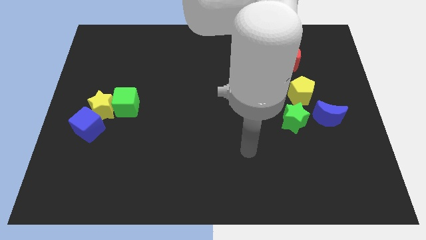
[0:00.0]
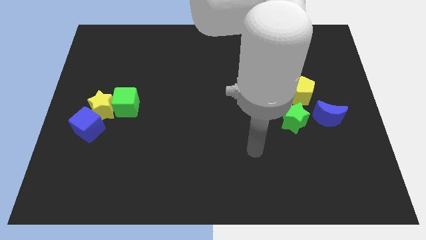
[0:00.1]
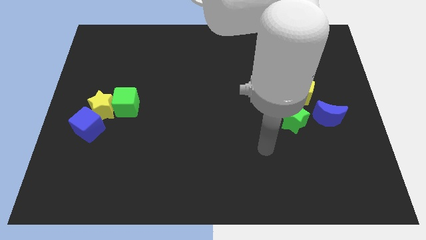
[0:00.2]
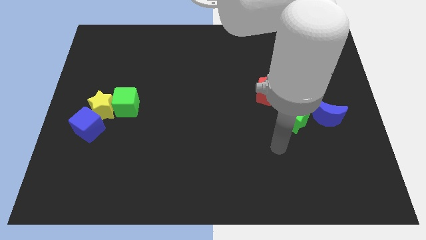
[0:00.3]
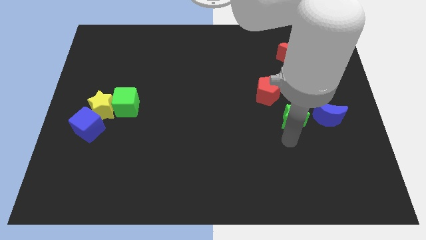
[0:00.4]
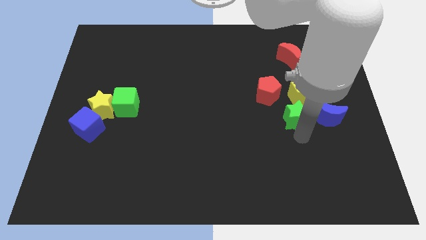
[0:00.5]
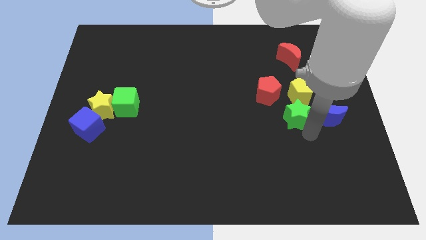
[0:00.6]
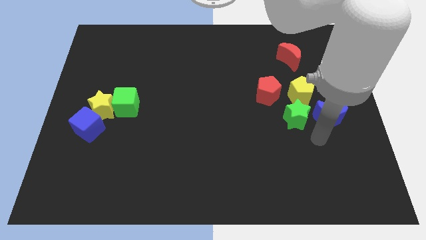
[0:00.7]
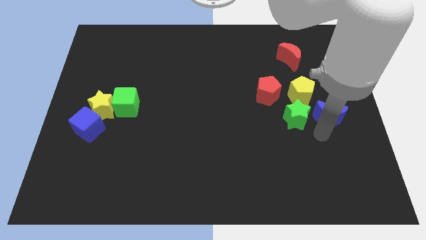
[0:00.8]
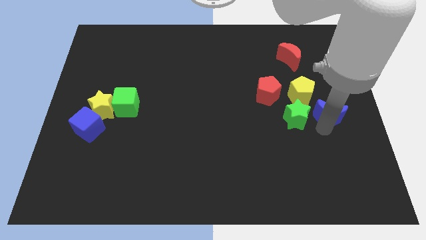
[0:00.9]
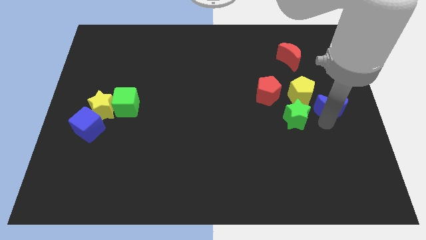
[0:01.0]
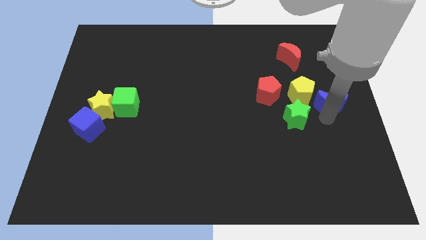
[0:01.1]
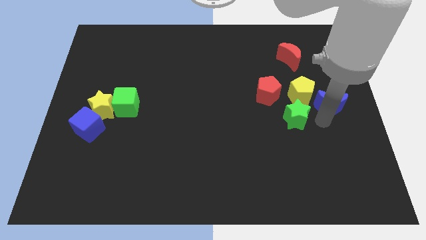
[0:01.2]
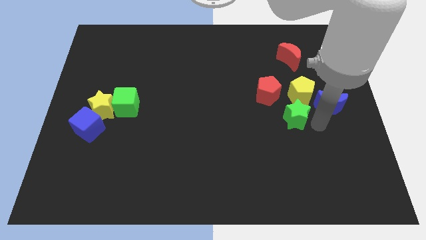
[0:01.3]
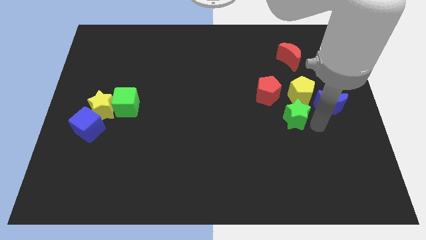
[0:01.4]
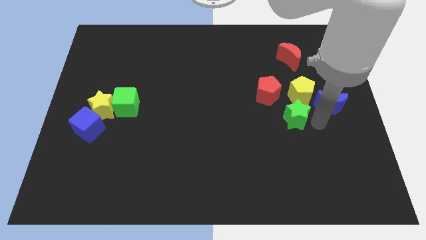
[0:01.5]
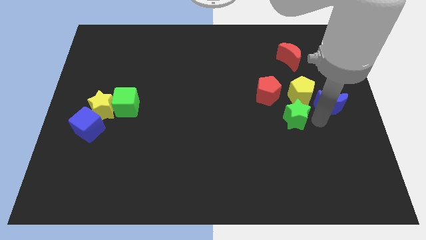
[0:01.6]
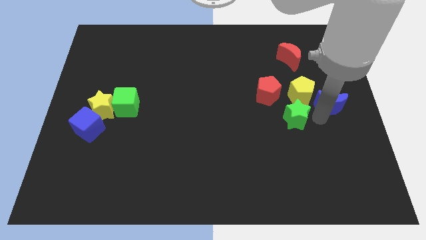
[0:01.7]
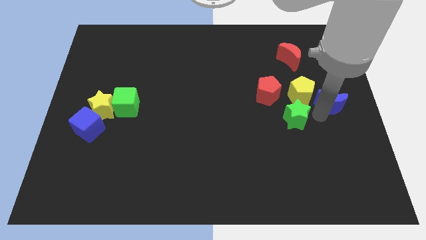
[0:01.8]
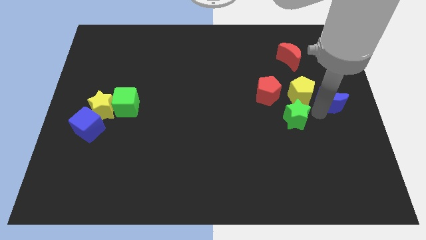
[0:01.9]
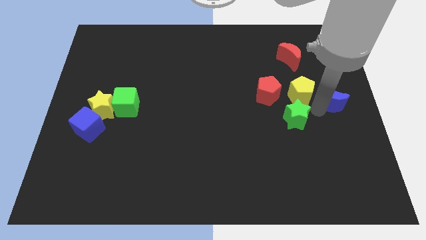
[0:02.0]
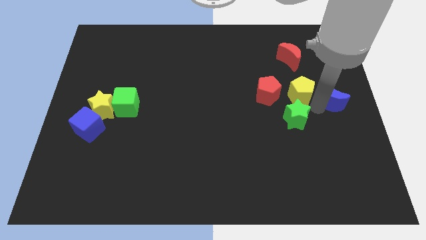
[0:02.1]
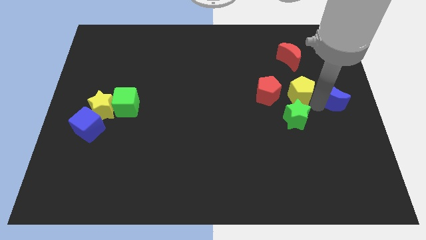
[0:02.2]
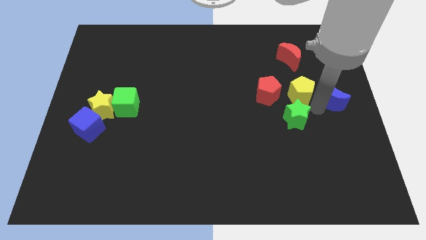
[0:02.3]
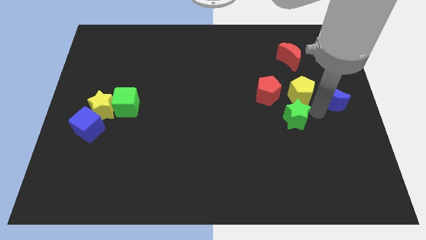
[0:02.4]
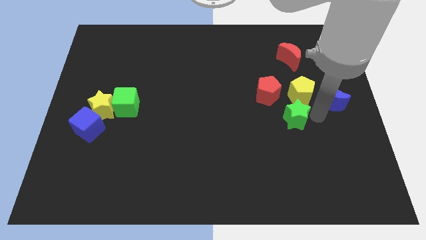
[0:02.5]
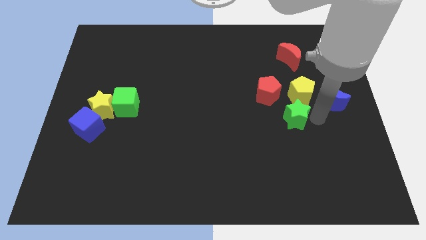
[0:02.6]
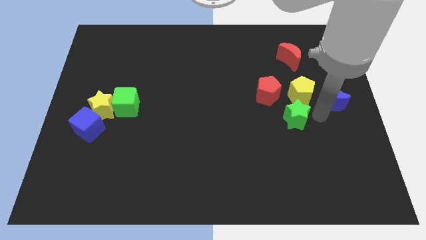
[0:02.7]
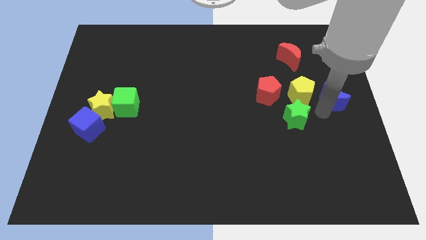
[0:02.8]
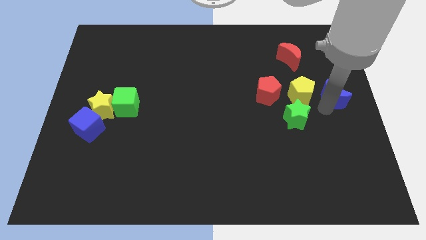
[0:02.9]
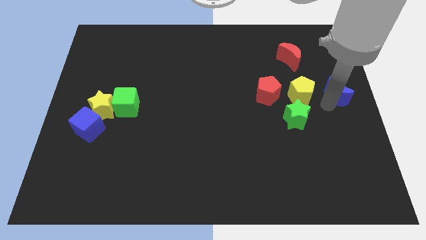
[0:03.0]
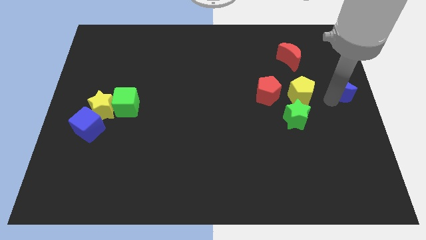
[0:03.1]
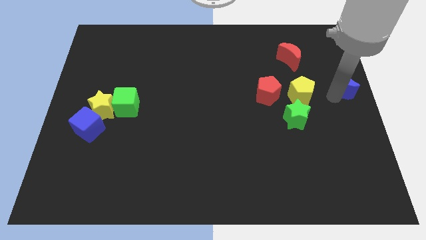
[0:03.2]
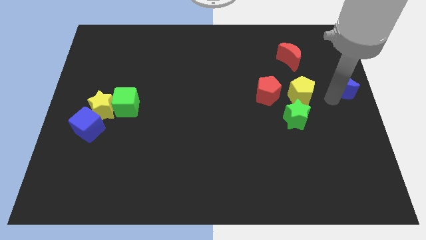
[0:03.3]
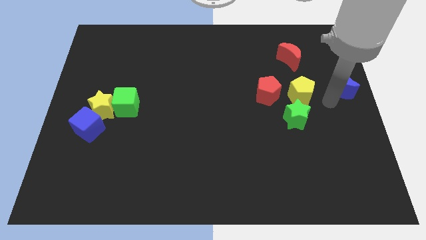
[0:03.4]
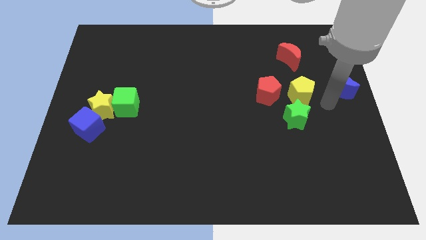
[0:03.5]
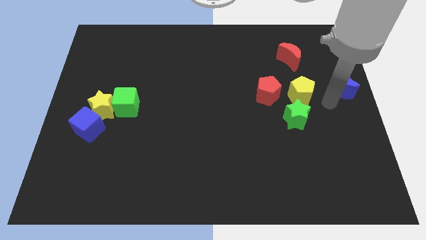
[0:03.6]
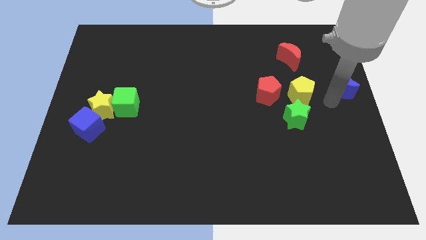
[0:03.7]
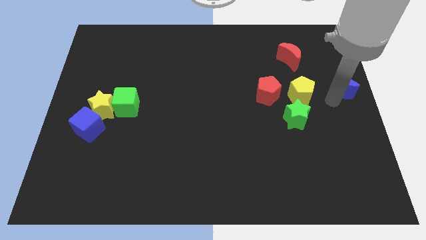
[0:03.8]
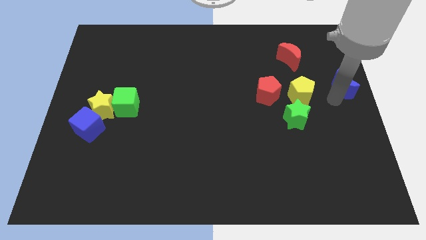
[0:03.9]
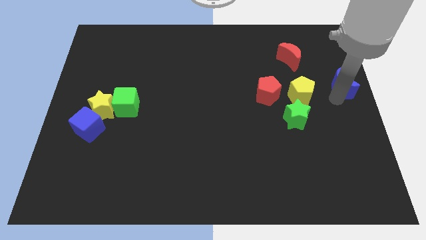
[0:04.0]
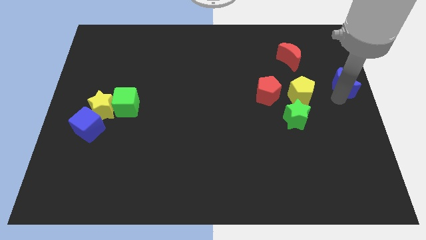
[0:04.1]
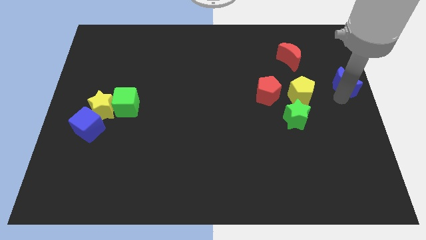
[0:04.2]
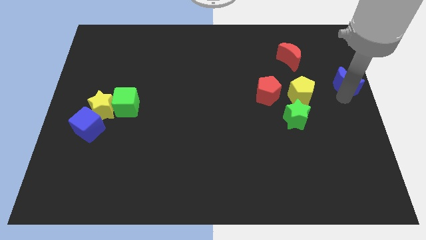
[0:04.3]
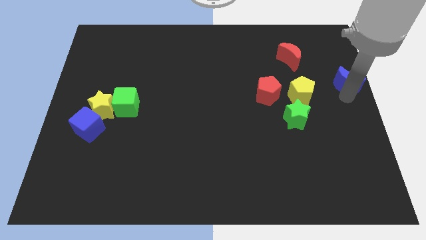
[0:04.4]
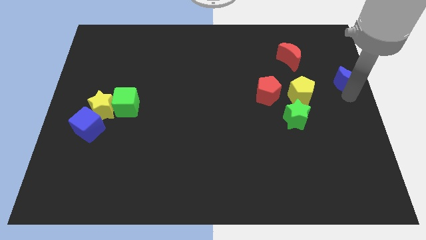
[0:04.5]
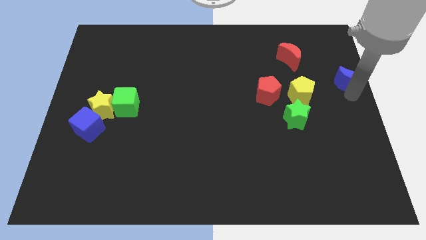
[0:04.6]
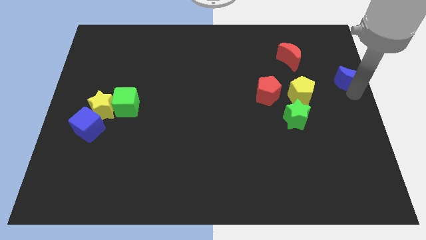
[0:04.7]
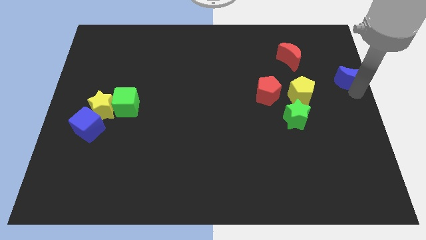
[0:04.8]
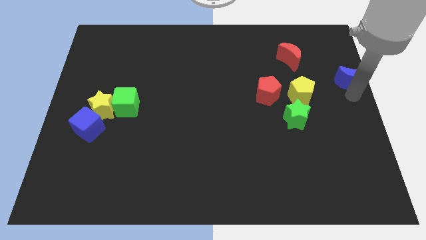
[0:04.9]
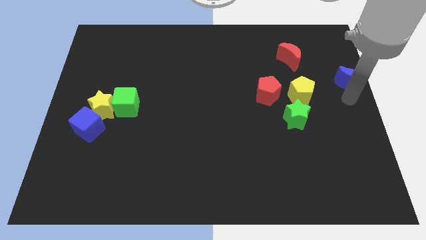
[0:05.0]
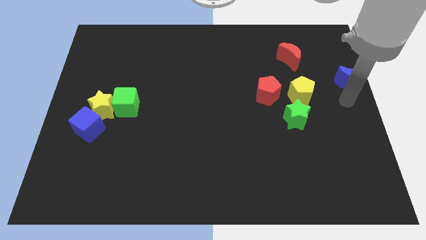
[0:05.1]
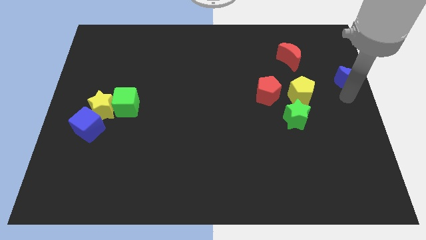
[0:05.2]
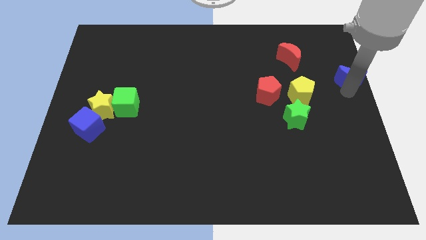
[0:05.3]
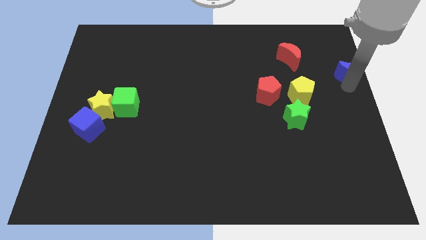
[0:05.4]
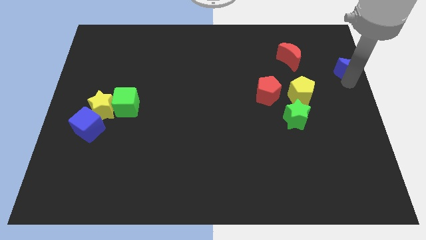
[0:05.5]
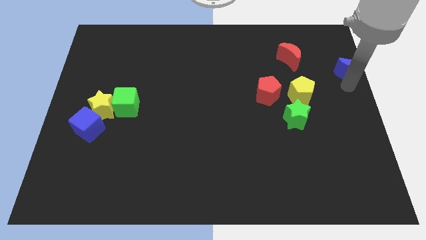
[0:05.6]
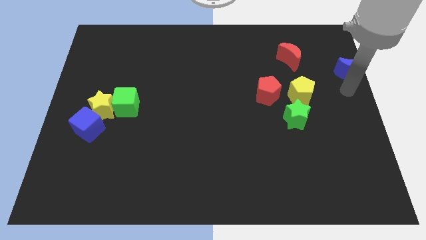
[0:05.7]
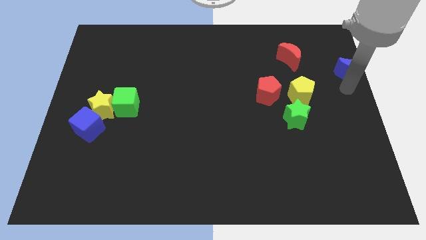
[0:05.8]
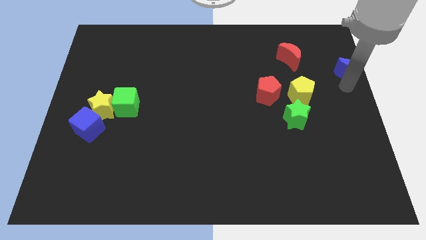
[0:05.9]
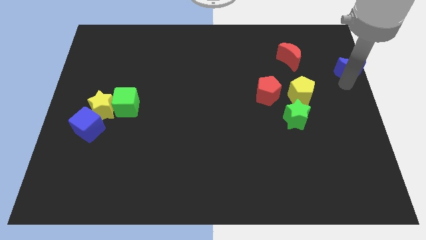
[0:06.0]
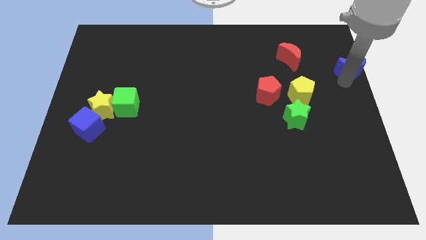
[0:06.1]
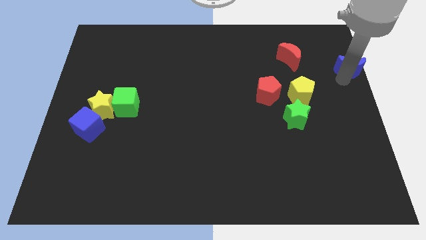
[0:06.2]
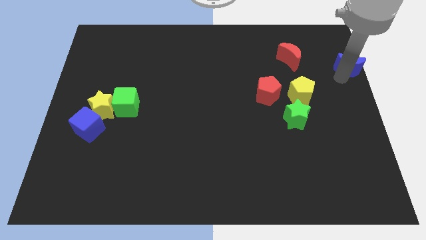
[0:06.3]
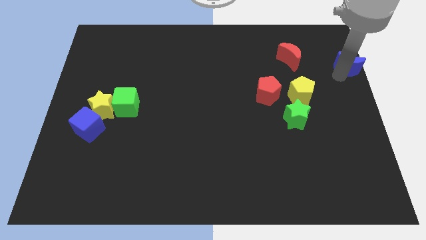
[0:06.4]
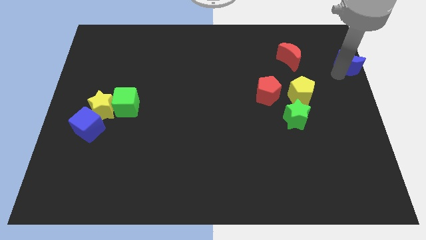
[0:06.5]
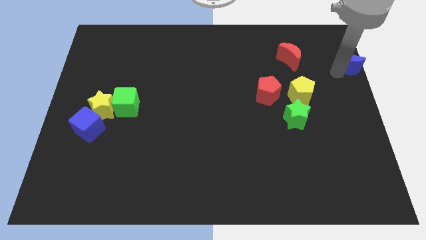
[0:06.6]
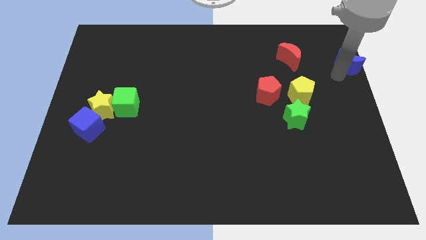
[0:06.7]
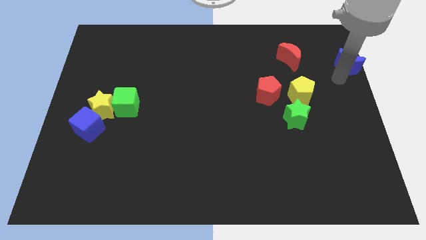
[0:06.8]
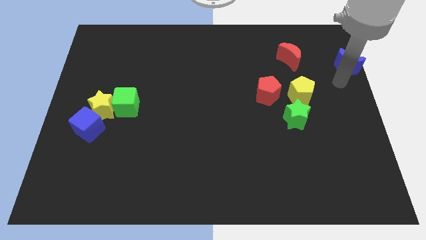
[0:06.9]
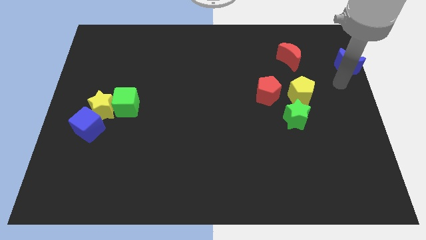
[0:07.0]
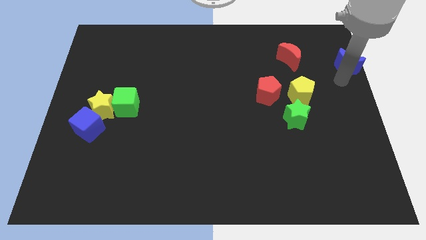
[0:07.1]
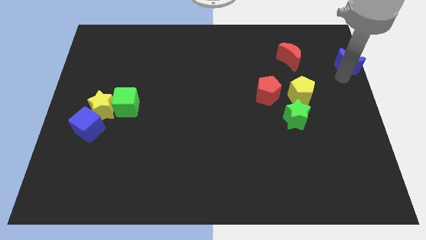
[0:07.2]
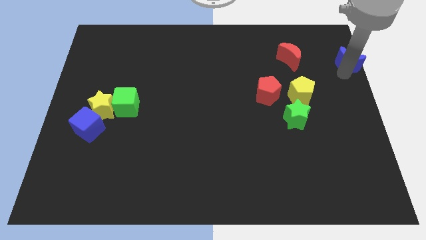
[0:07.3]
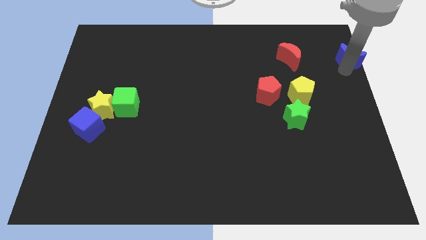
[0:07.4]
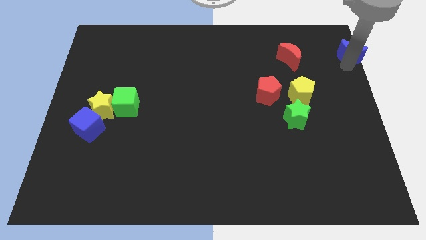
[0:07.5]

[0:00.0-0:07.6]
put the blue moon to the top right
